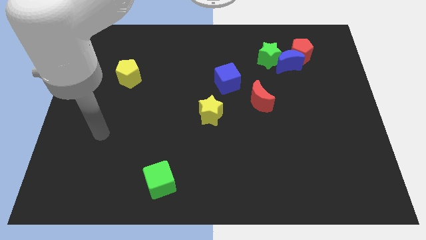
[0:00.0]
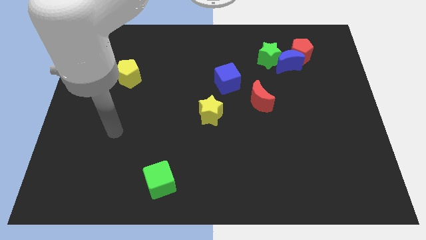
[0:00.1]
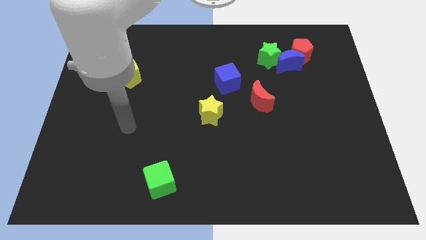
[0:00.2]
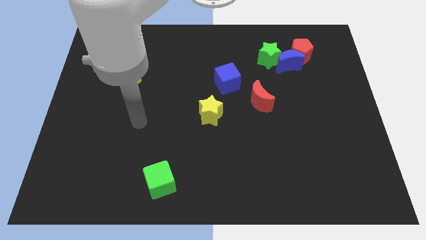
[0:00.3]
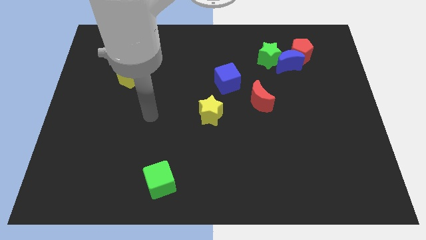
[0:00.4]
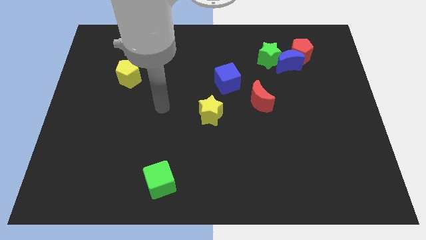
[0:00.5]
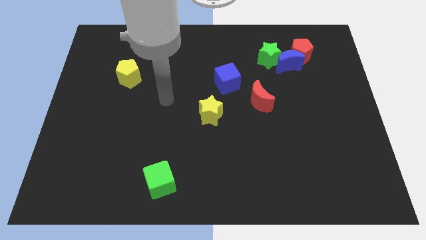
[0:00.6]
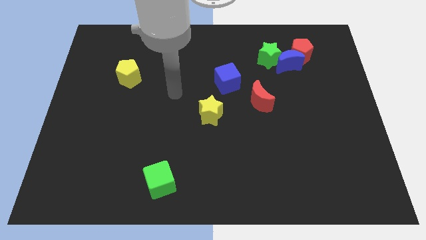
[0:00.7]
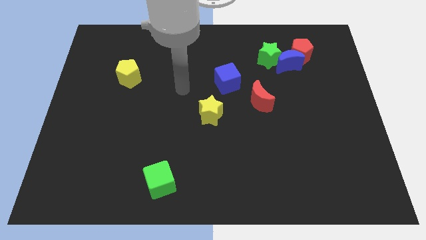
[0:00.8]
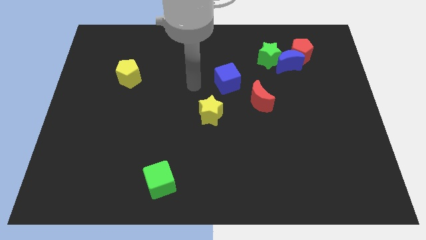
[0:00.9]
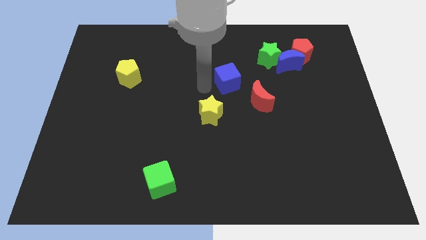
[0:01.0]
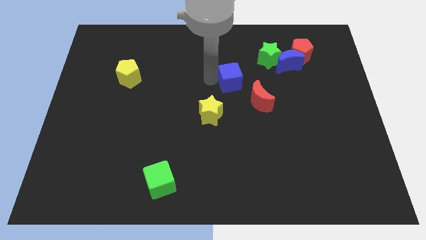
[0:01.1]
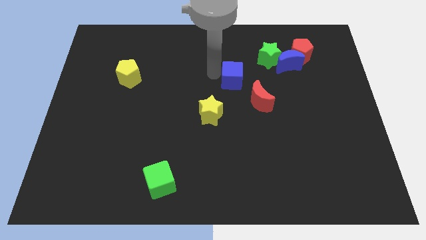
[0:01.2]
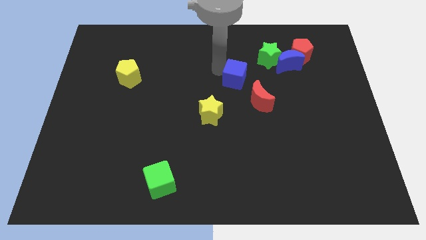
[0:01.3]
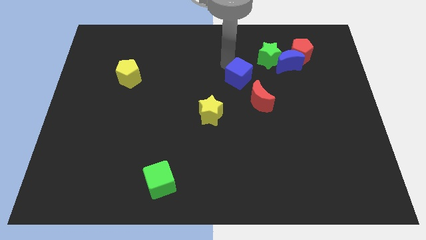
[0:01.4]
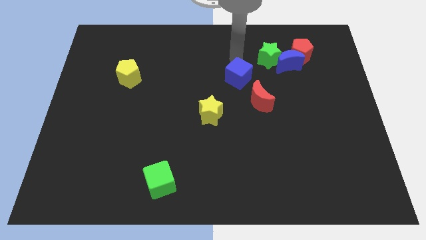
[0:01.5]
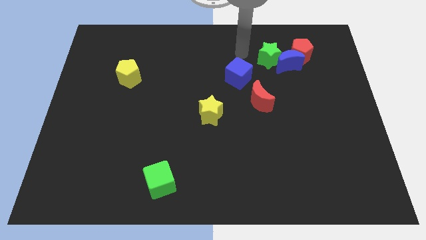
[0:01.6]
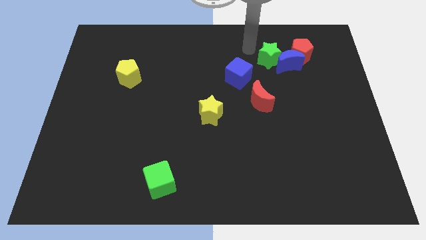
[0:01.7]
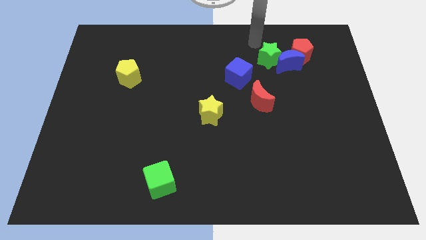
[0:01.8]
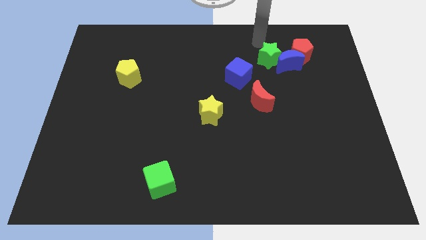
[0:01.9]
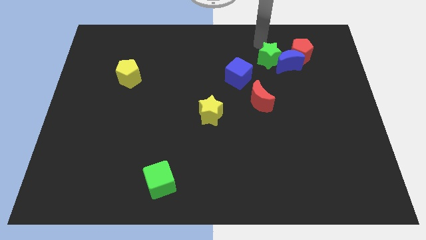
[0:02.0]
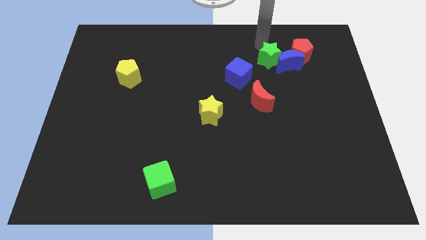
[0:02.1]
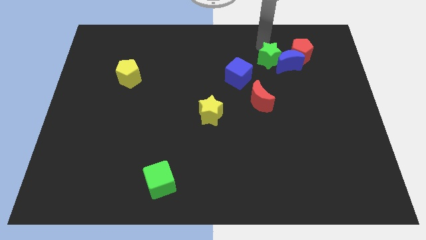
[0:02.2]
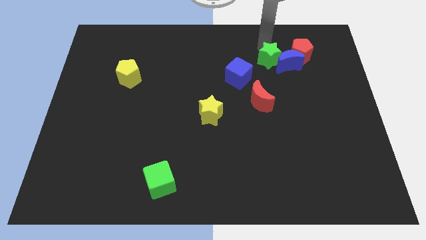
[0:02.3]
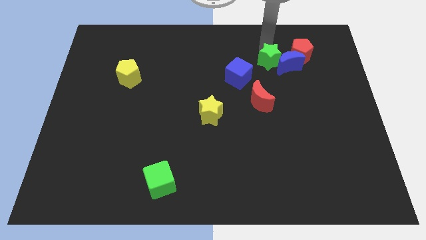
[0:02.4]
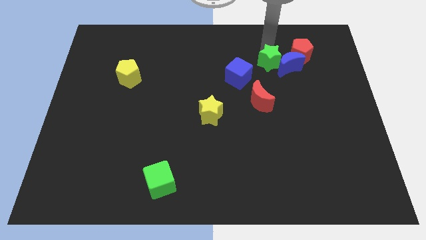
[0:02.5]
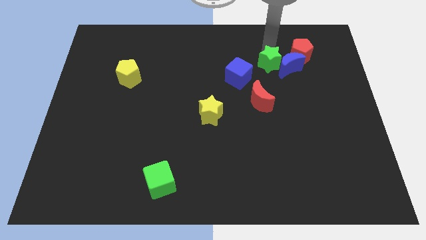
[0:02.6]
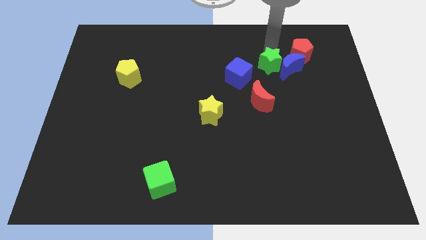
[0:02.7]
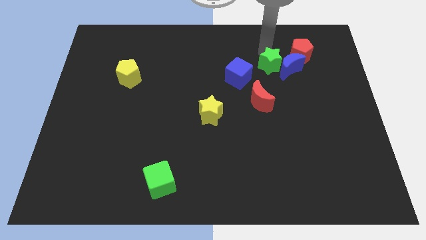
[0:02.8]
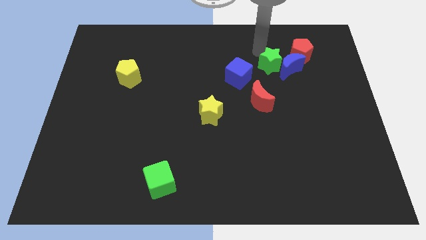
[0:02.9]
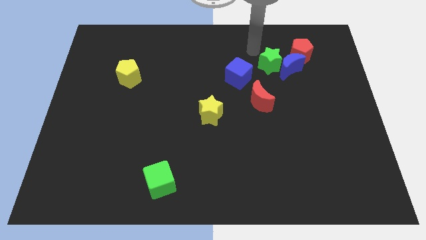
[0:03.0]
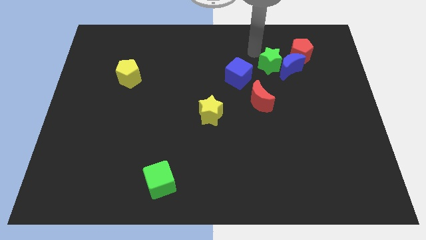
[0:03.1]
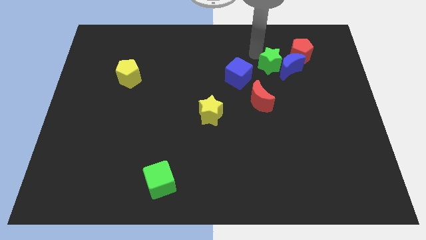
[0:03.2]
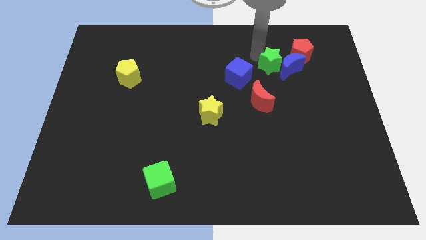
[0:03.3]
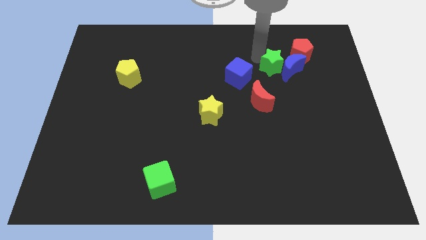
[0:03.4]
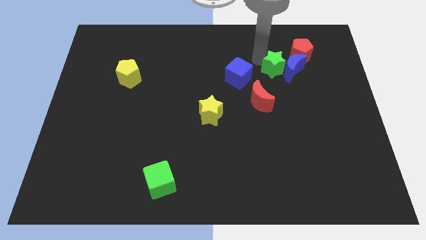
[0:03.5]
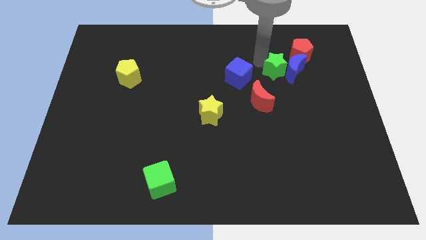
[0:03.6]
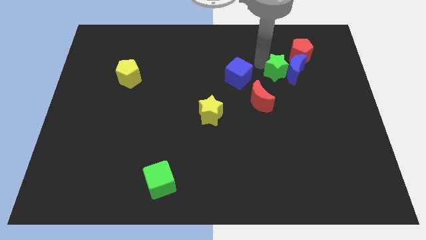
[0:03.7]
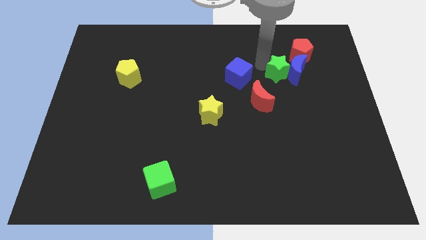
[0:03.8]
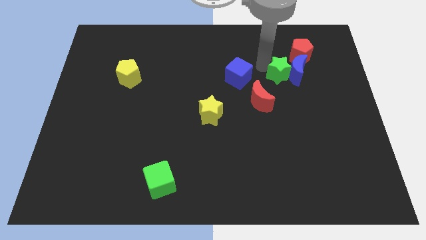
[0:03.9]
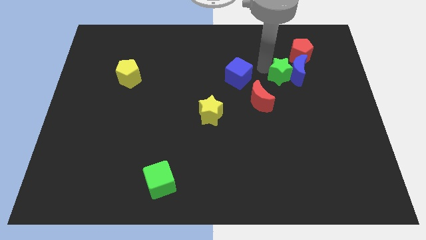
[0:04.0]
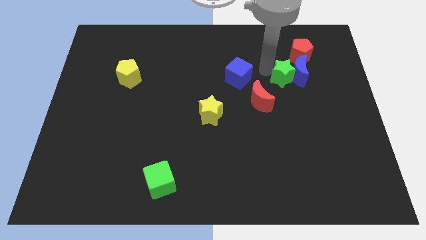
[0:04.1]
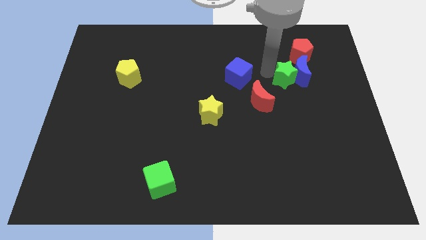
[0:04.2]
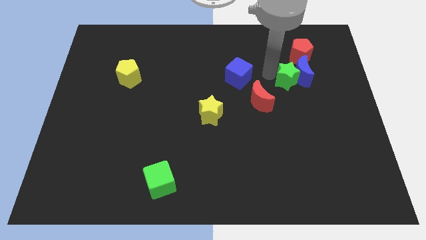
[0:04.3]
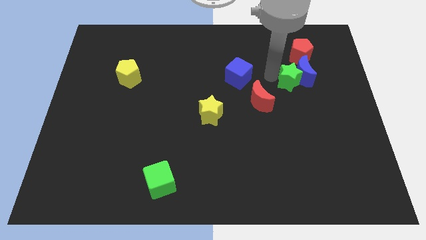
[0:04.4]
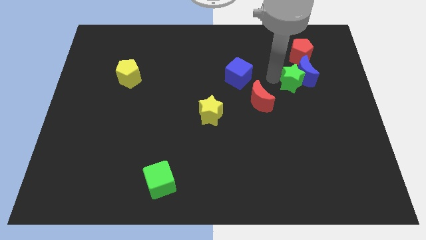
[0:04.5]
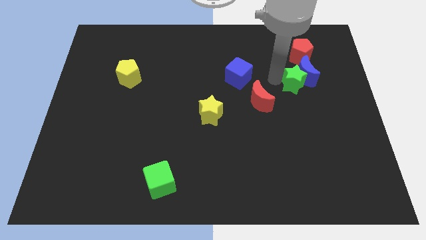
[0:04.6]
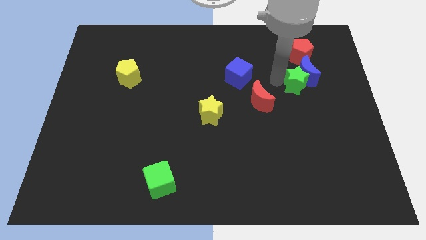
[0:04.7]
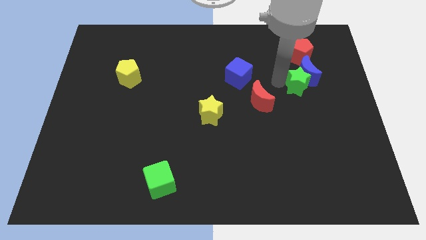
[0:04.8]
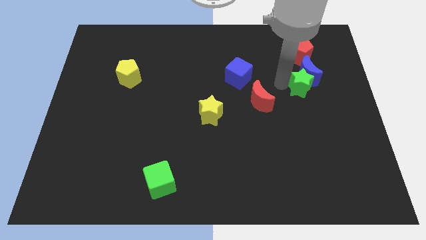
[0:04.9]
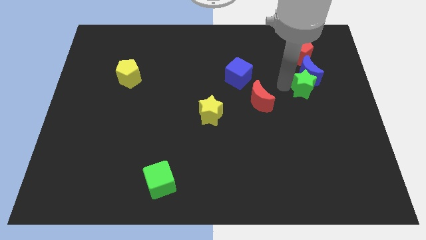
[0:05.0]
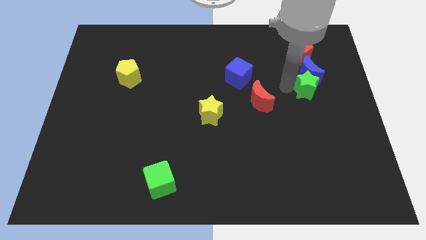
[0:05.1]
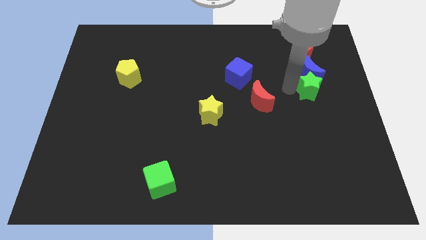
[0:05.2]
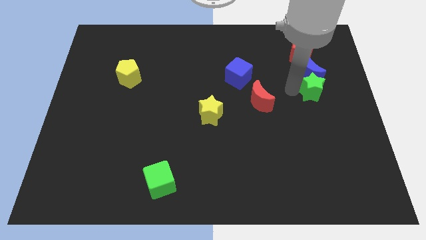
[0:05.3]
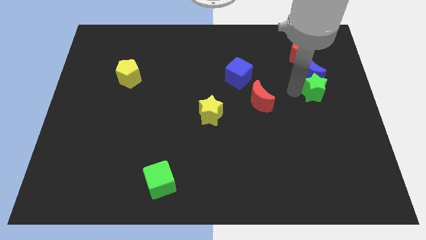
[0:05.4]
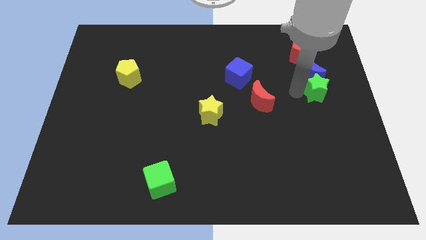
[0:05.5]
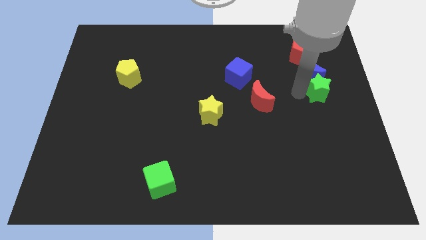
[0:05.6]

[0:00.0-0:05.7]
slide the green star to the right side

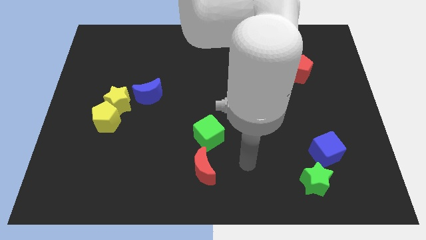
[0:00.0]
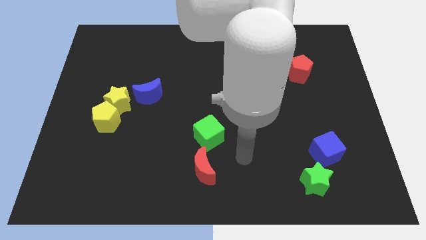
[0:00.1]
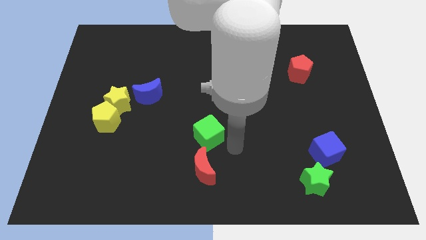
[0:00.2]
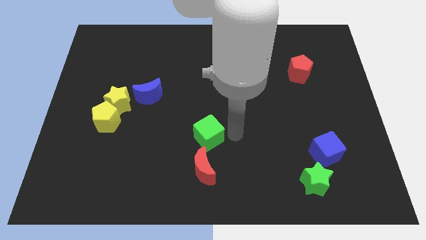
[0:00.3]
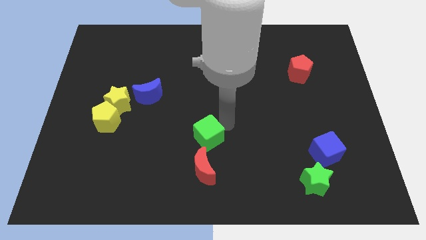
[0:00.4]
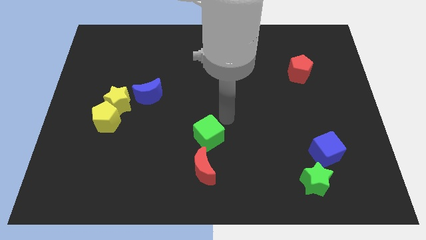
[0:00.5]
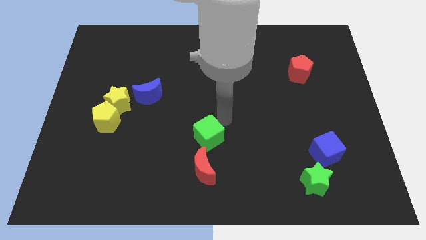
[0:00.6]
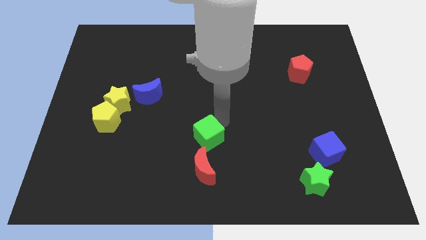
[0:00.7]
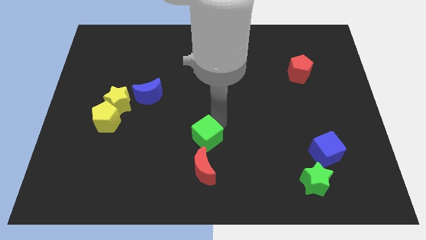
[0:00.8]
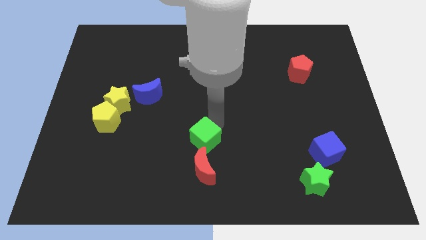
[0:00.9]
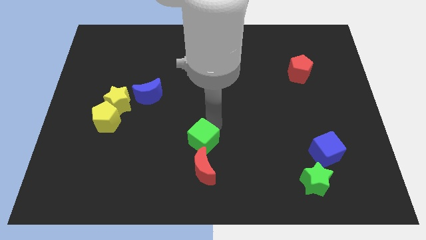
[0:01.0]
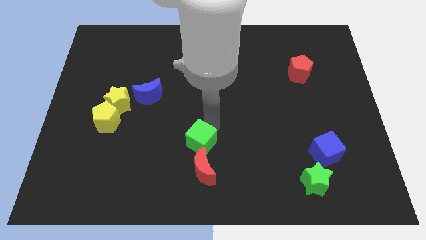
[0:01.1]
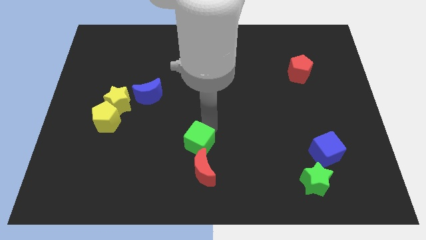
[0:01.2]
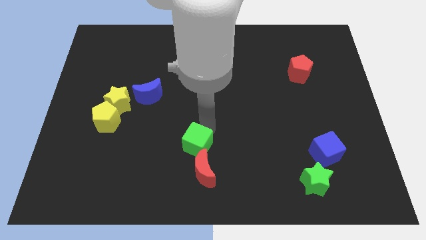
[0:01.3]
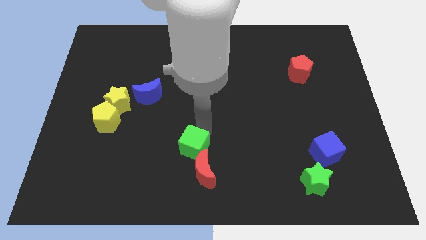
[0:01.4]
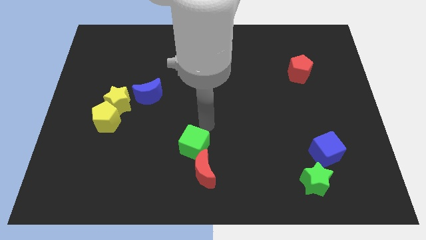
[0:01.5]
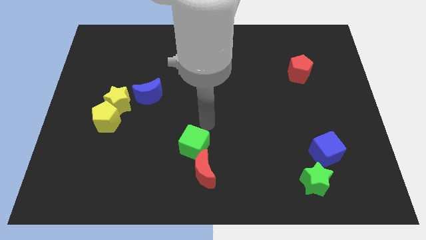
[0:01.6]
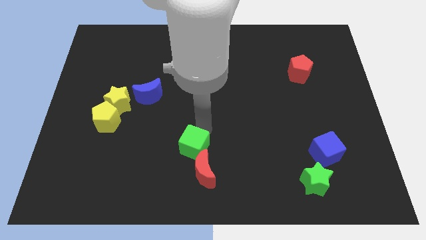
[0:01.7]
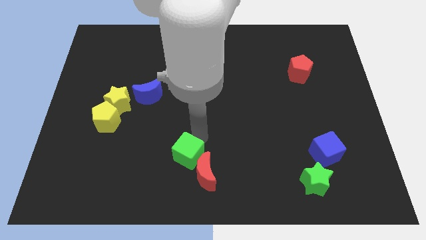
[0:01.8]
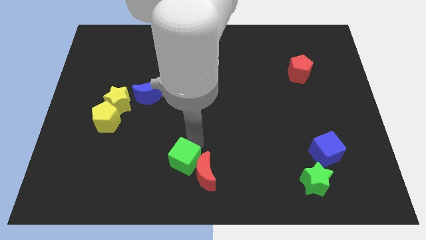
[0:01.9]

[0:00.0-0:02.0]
push the green cube to the bottom side
